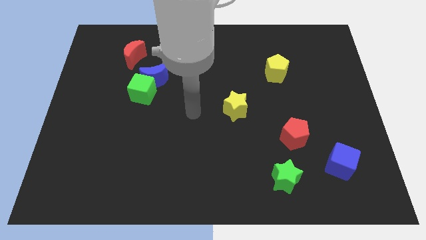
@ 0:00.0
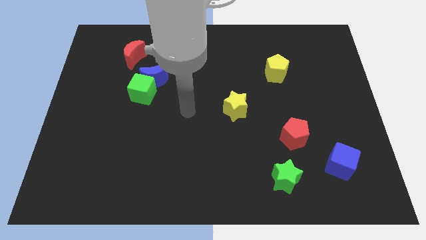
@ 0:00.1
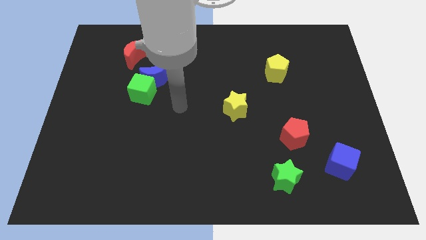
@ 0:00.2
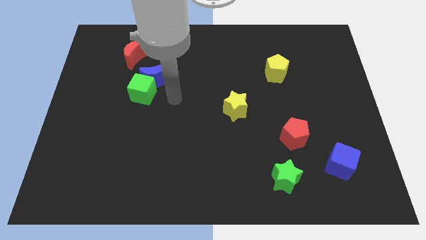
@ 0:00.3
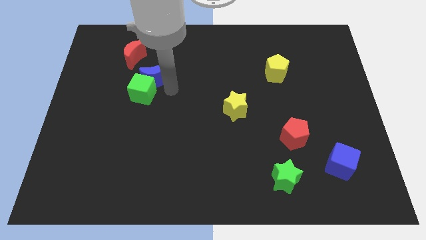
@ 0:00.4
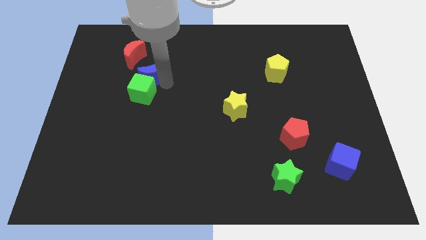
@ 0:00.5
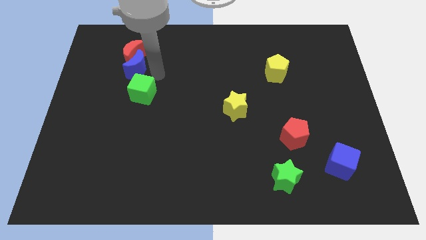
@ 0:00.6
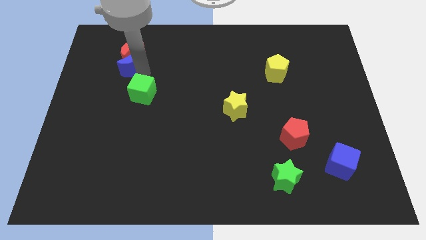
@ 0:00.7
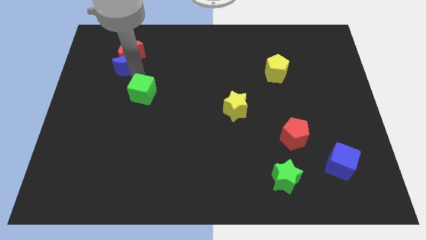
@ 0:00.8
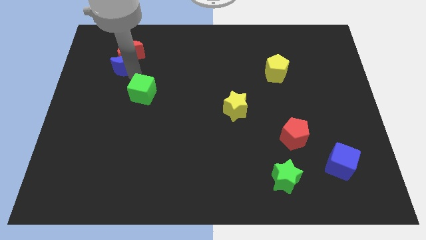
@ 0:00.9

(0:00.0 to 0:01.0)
pull the green cube apart from the blue moon

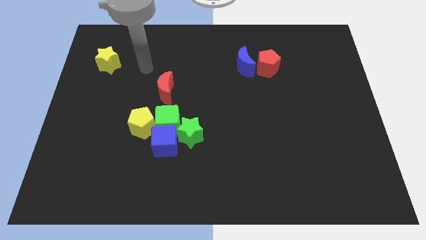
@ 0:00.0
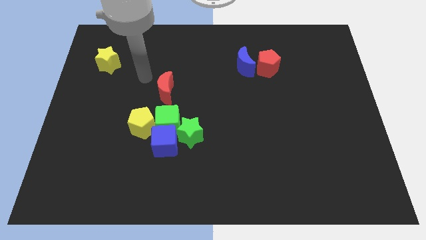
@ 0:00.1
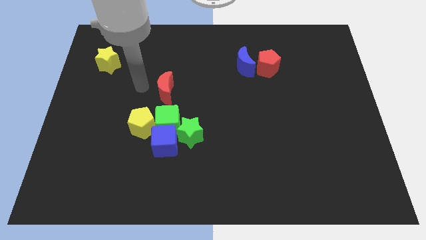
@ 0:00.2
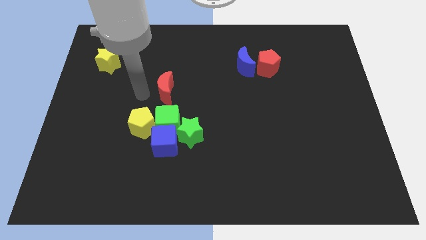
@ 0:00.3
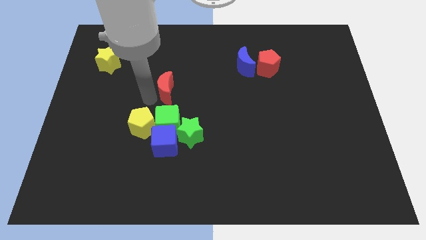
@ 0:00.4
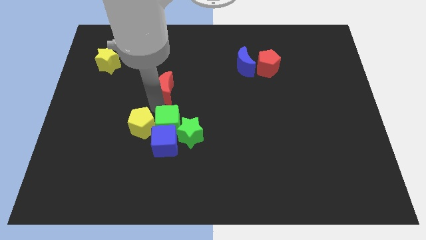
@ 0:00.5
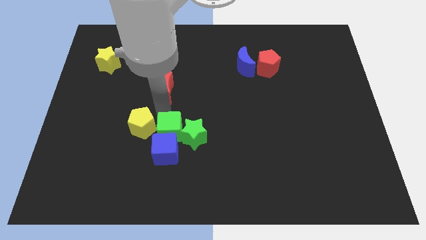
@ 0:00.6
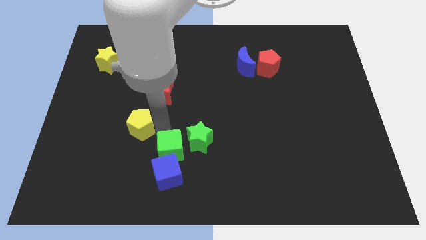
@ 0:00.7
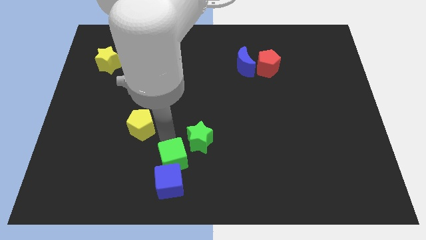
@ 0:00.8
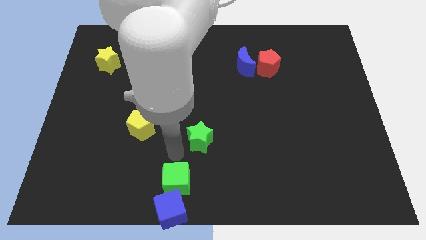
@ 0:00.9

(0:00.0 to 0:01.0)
move the green star away from the blue cube and green cube

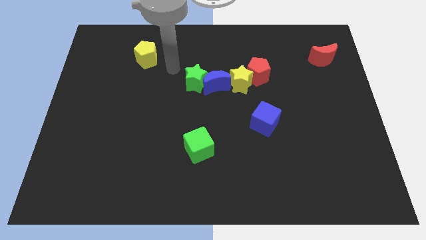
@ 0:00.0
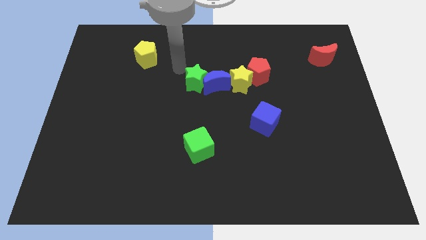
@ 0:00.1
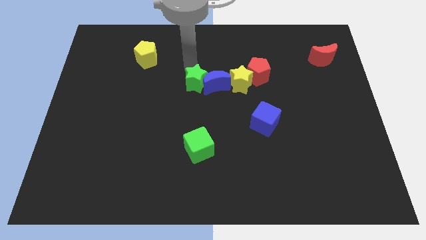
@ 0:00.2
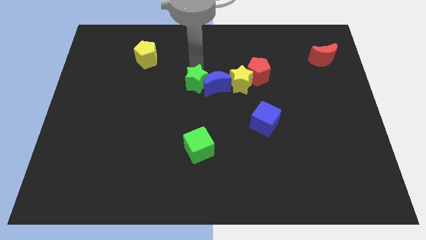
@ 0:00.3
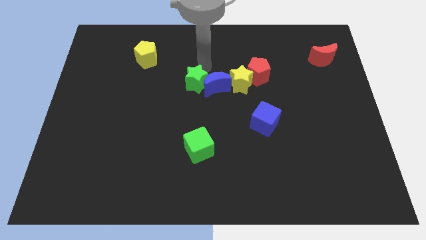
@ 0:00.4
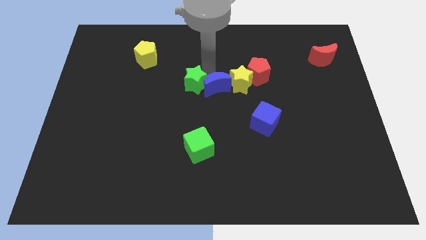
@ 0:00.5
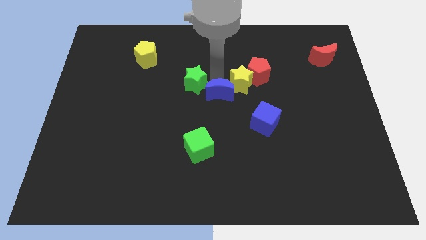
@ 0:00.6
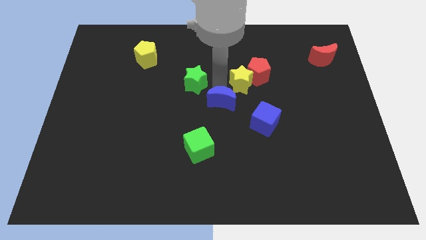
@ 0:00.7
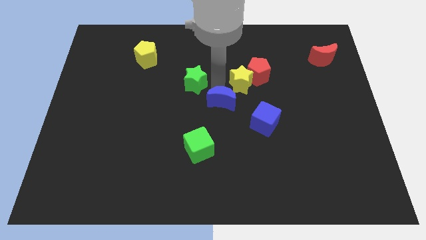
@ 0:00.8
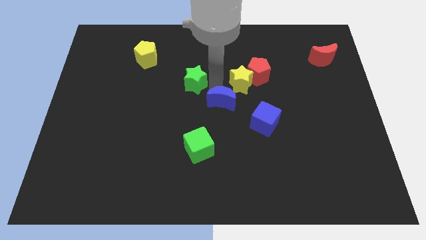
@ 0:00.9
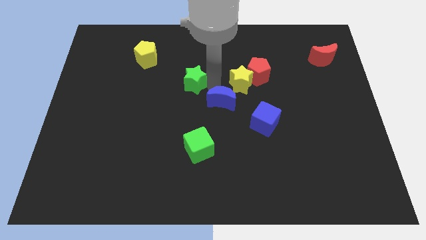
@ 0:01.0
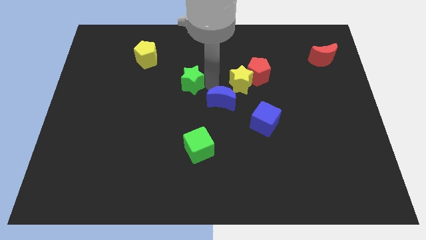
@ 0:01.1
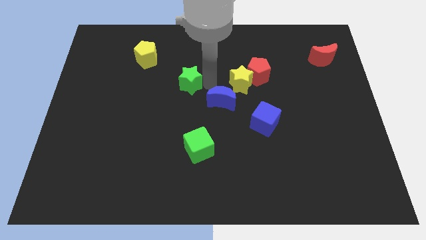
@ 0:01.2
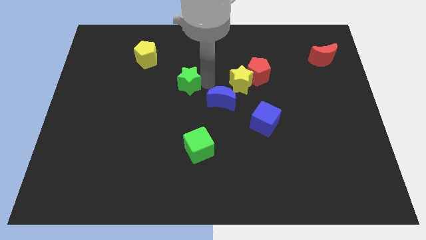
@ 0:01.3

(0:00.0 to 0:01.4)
pull the green star apart from the blue moon

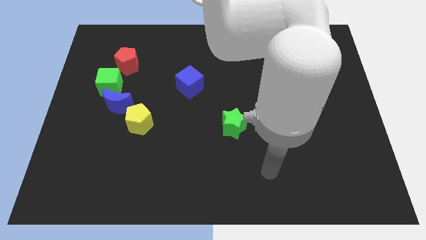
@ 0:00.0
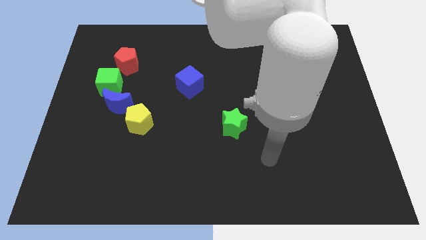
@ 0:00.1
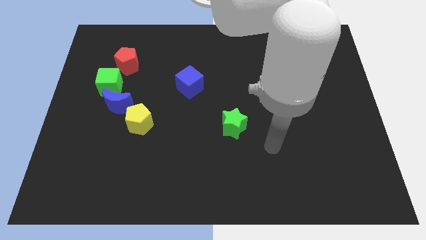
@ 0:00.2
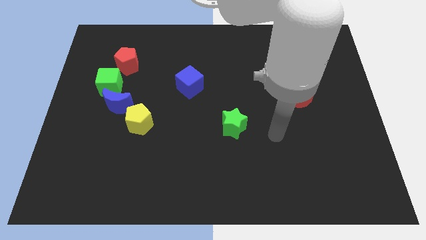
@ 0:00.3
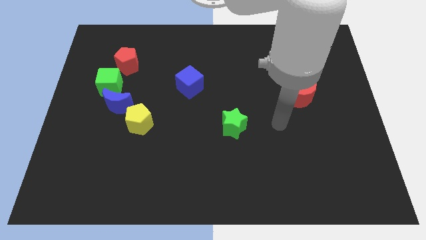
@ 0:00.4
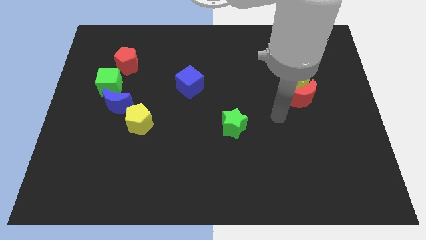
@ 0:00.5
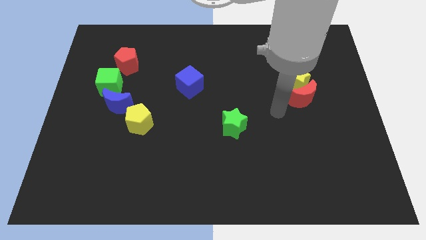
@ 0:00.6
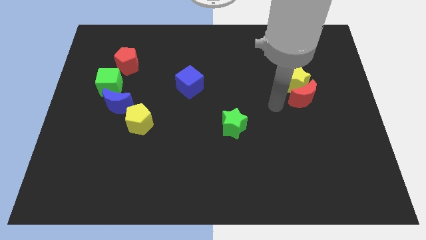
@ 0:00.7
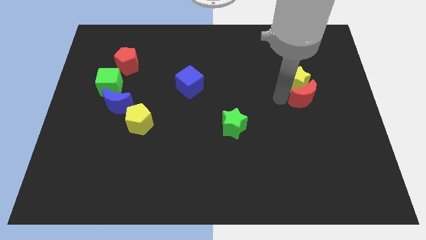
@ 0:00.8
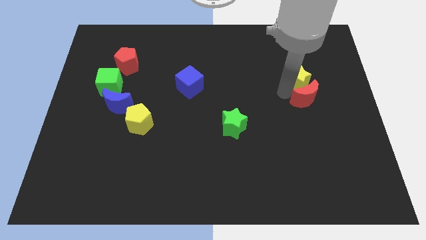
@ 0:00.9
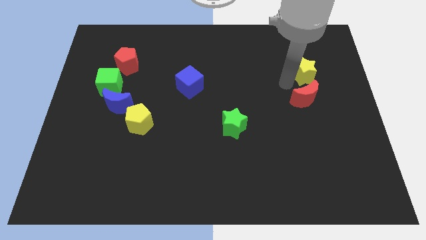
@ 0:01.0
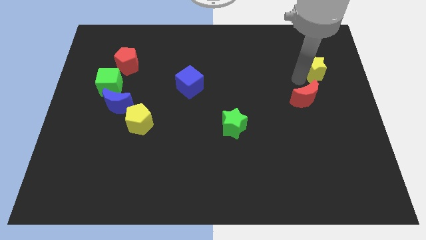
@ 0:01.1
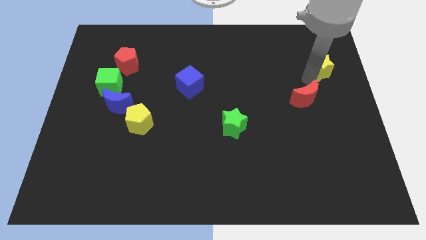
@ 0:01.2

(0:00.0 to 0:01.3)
pull the red moon apart from the yellow star

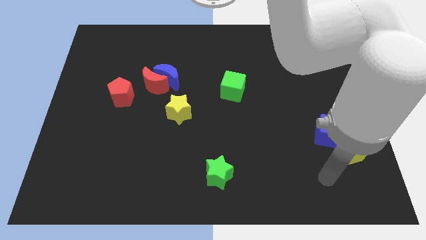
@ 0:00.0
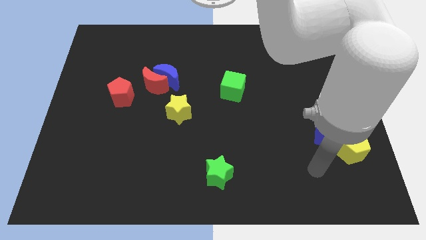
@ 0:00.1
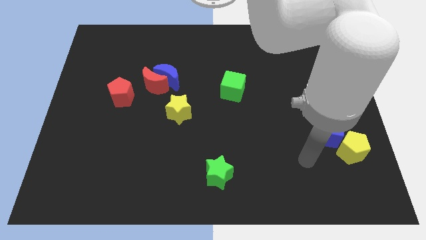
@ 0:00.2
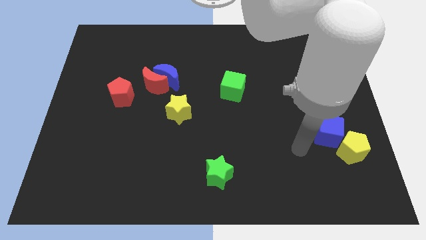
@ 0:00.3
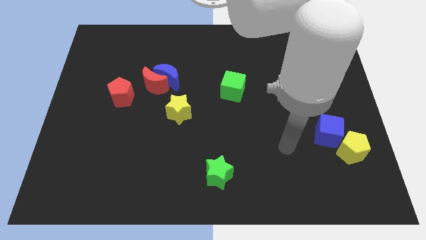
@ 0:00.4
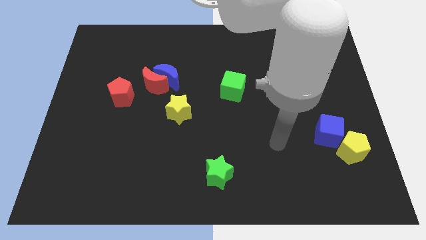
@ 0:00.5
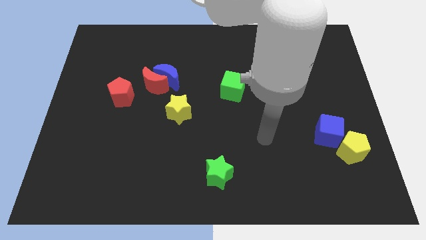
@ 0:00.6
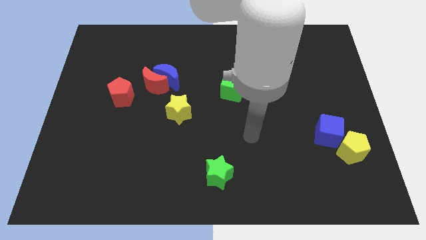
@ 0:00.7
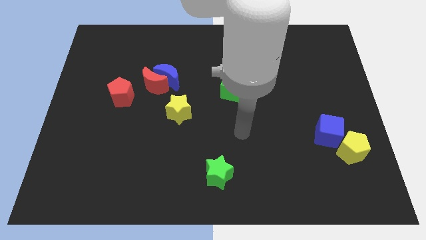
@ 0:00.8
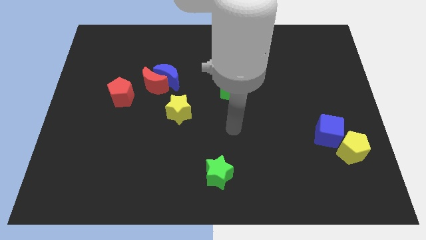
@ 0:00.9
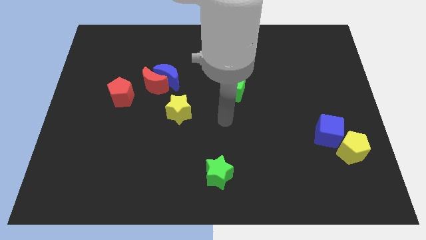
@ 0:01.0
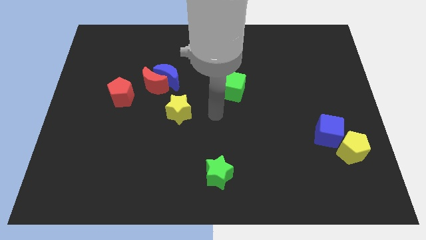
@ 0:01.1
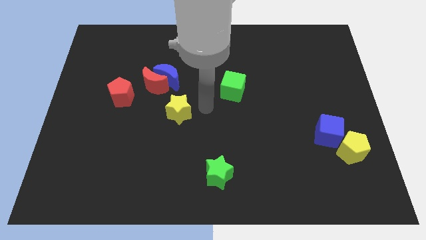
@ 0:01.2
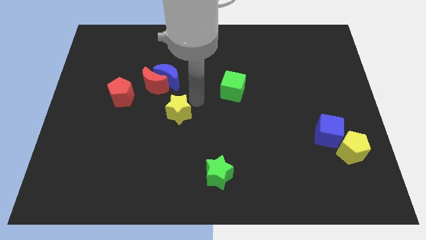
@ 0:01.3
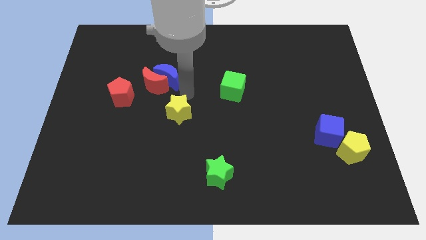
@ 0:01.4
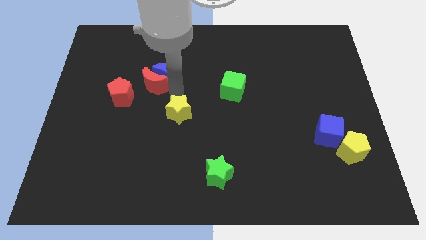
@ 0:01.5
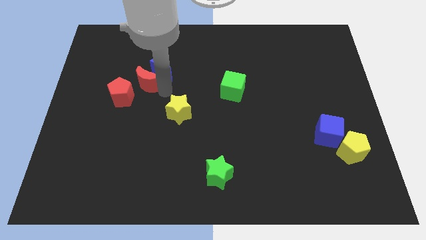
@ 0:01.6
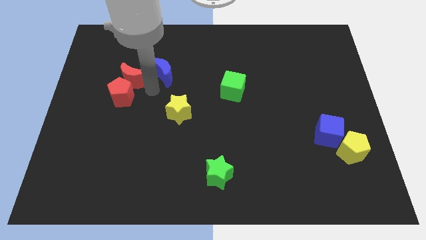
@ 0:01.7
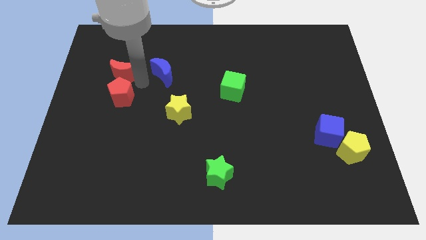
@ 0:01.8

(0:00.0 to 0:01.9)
move the blue moon away from the red moon

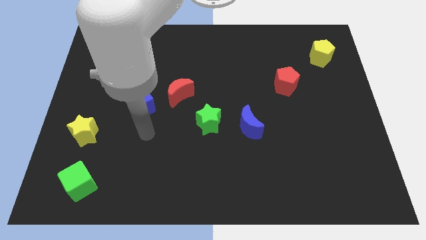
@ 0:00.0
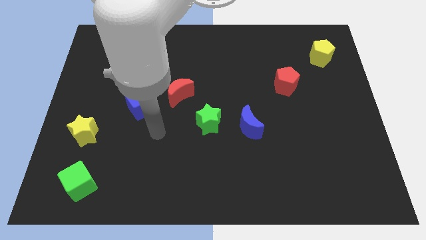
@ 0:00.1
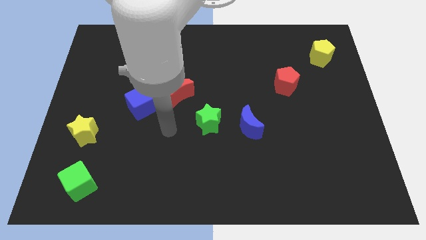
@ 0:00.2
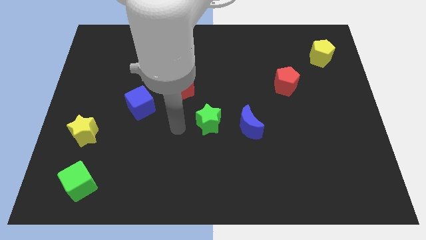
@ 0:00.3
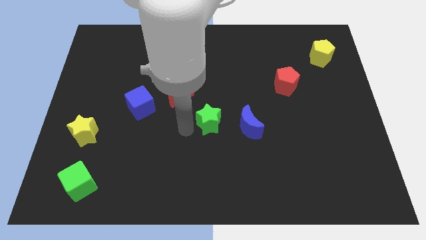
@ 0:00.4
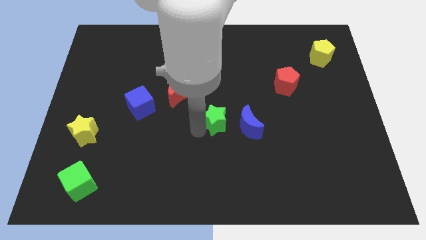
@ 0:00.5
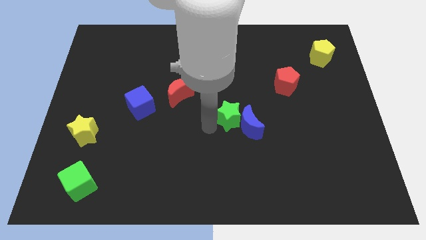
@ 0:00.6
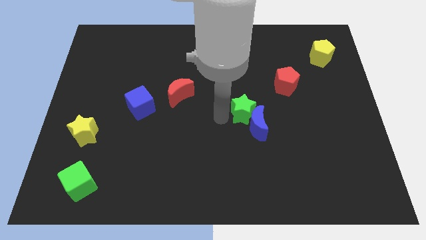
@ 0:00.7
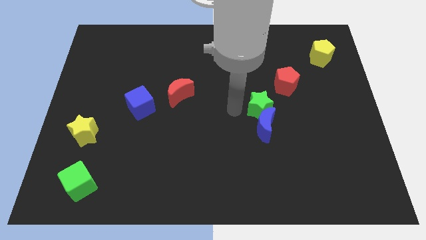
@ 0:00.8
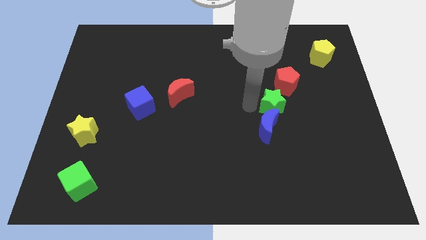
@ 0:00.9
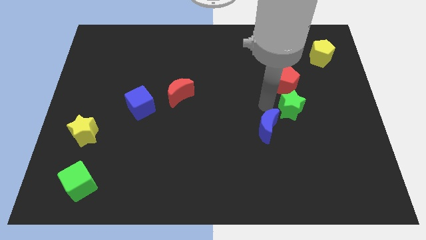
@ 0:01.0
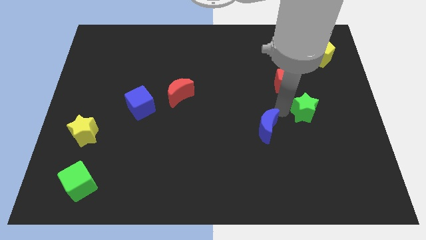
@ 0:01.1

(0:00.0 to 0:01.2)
move the blue moon away from the green star

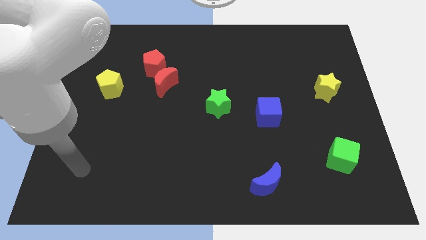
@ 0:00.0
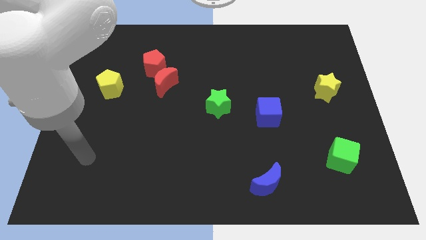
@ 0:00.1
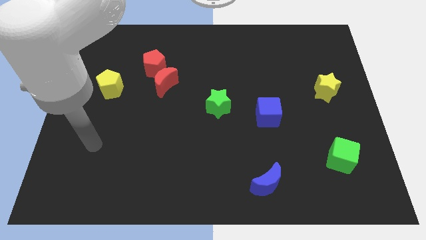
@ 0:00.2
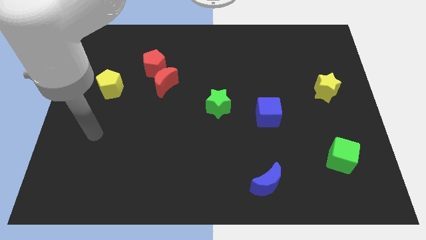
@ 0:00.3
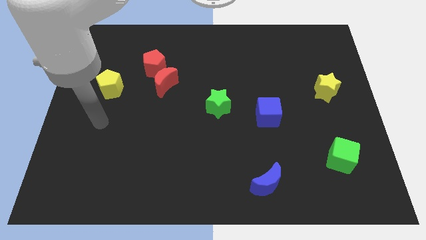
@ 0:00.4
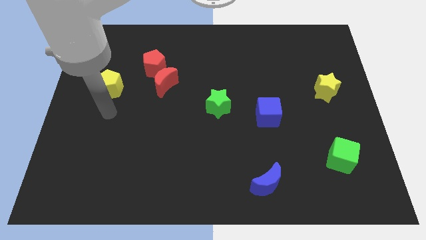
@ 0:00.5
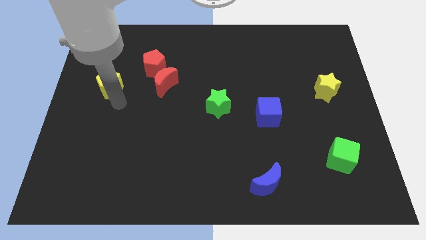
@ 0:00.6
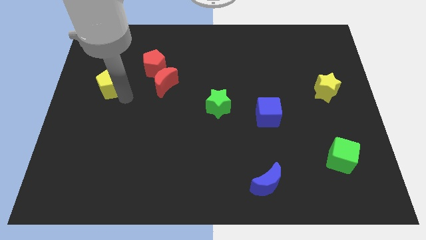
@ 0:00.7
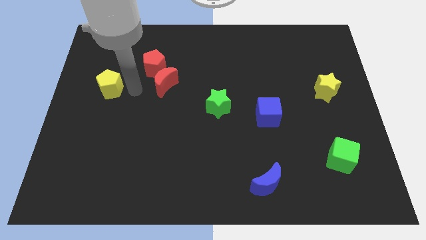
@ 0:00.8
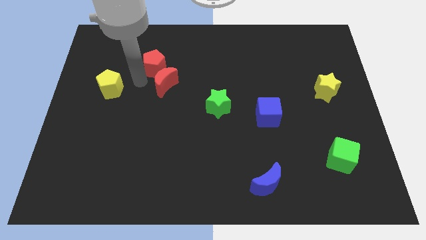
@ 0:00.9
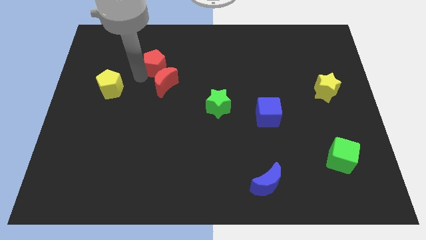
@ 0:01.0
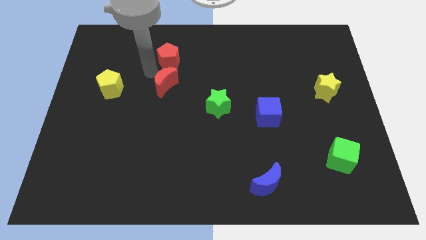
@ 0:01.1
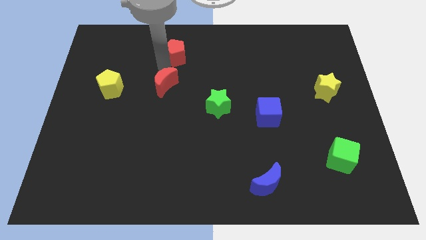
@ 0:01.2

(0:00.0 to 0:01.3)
separate the red moon from the red pentagon
